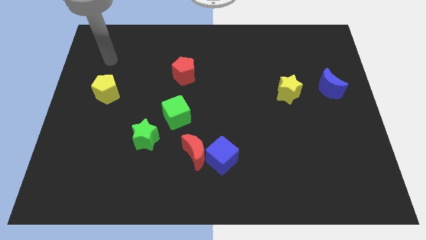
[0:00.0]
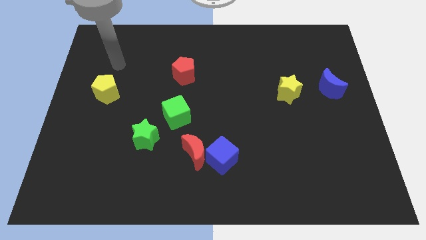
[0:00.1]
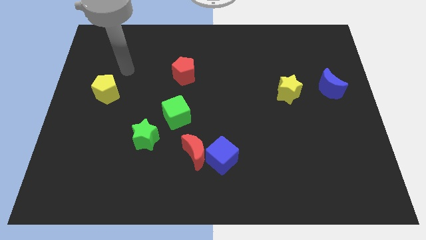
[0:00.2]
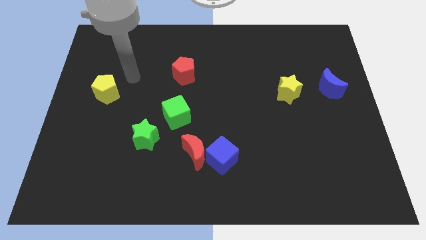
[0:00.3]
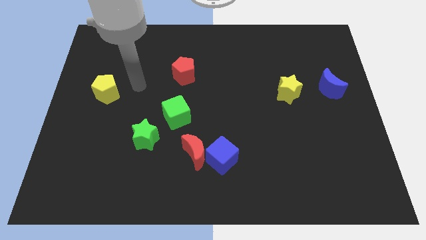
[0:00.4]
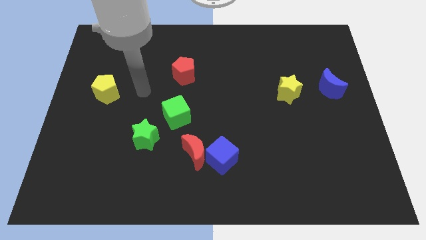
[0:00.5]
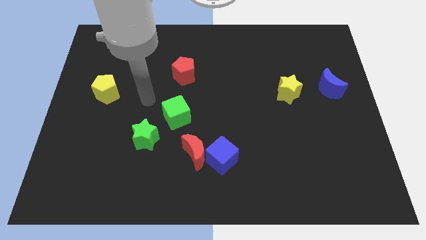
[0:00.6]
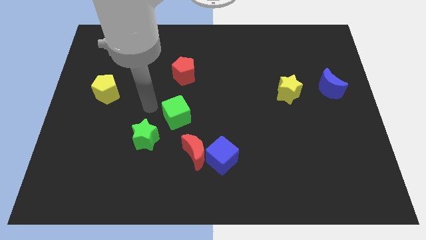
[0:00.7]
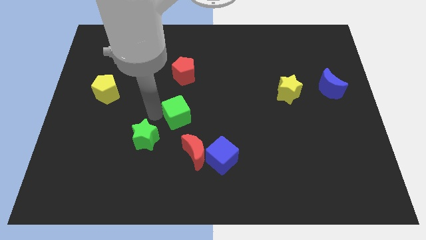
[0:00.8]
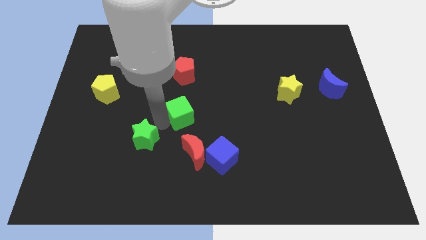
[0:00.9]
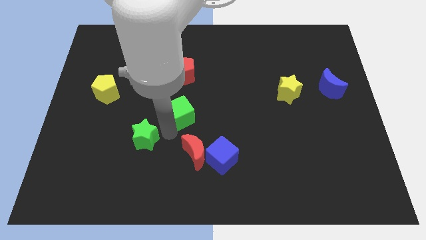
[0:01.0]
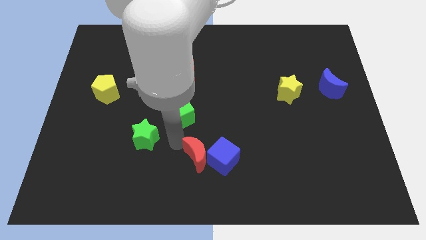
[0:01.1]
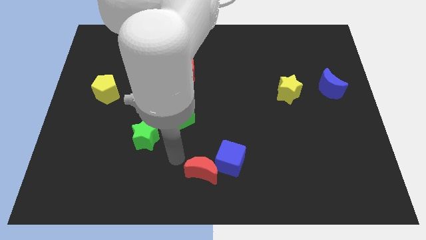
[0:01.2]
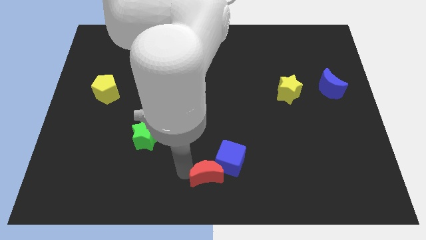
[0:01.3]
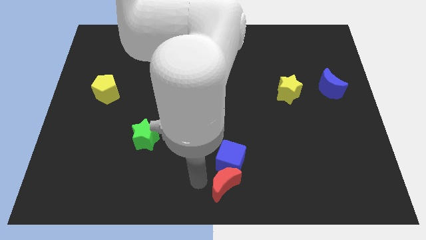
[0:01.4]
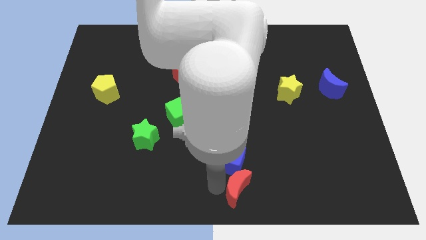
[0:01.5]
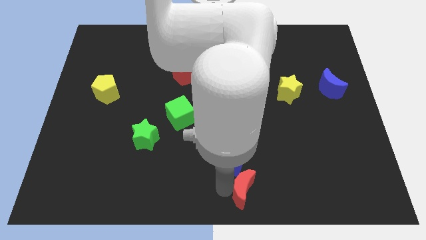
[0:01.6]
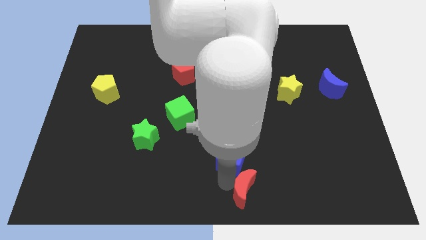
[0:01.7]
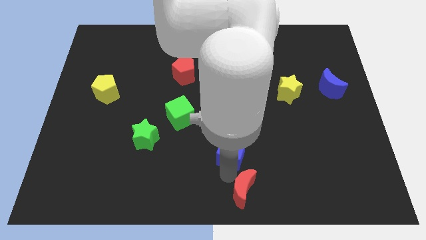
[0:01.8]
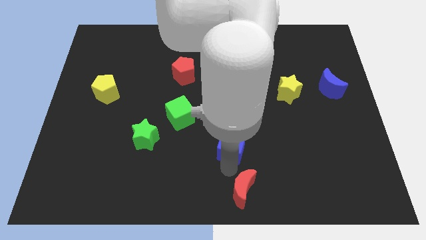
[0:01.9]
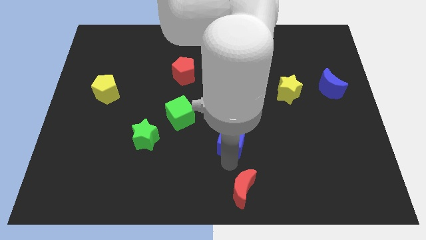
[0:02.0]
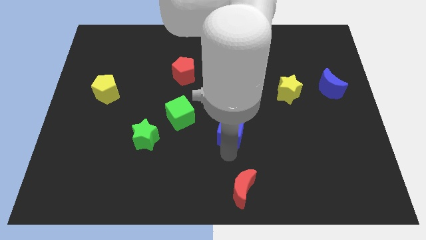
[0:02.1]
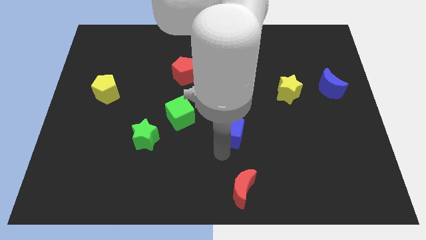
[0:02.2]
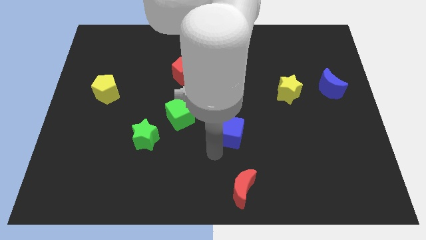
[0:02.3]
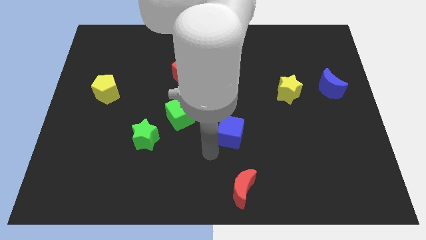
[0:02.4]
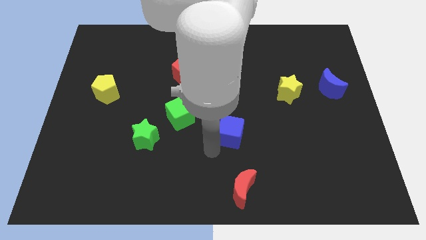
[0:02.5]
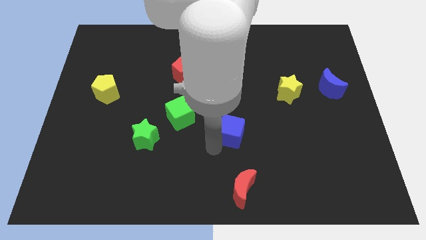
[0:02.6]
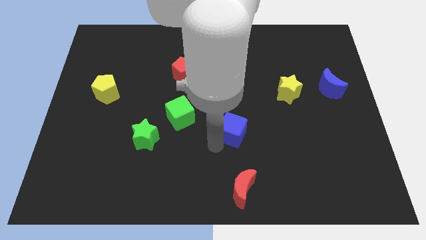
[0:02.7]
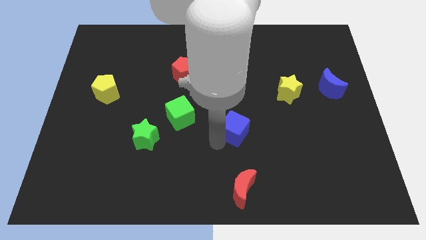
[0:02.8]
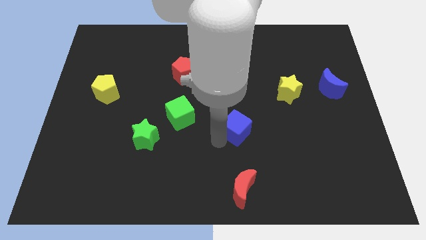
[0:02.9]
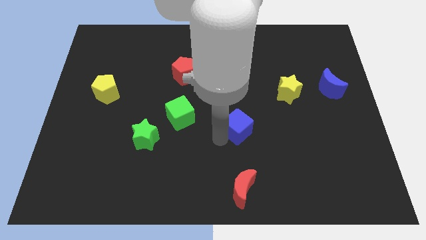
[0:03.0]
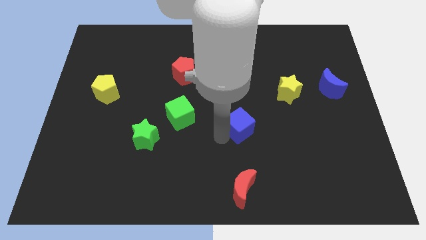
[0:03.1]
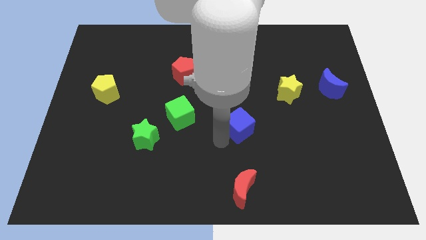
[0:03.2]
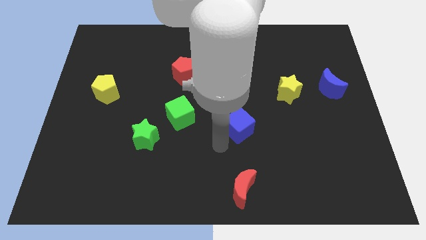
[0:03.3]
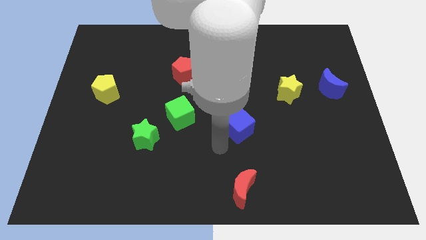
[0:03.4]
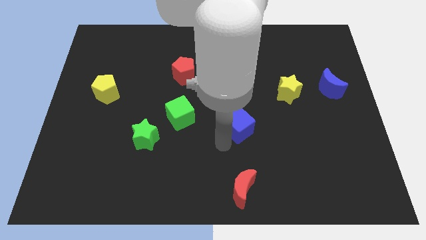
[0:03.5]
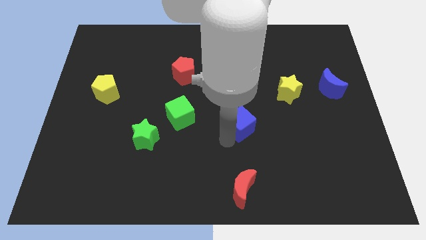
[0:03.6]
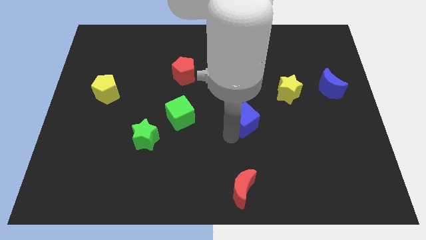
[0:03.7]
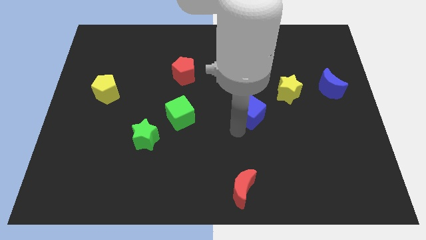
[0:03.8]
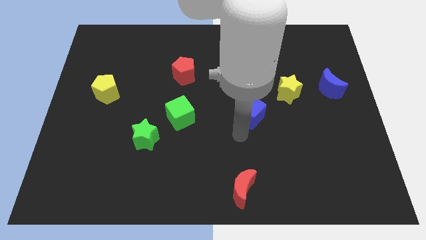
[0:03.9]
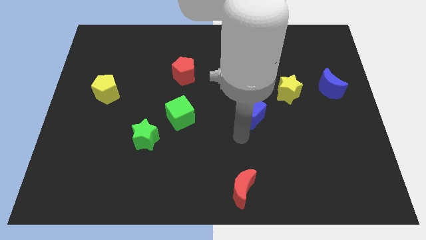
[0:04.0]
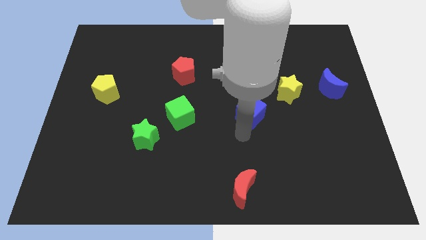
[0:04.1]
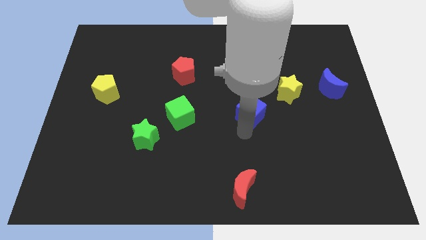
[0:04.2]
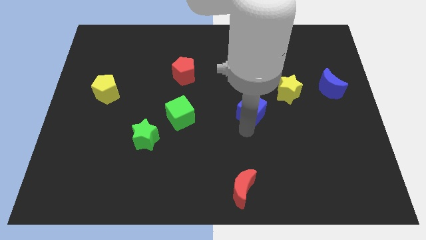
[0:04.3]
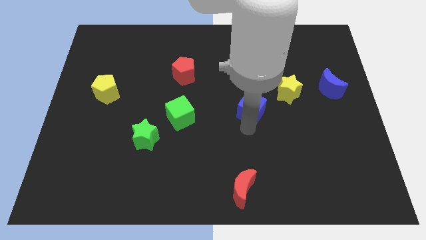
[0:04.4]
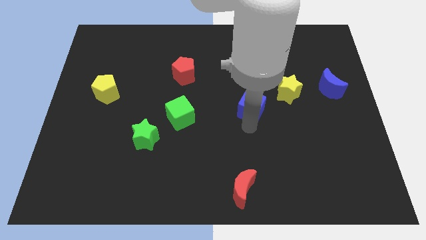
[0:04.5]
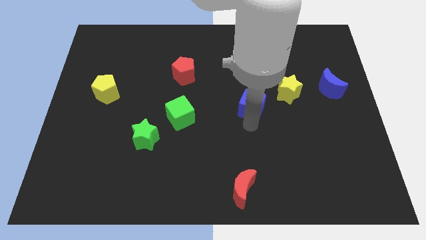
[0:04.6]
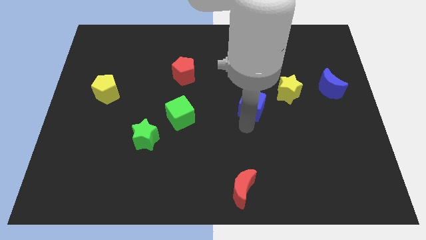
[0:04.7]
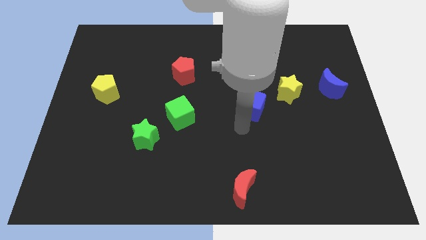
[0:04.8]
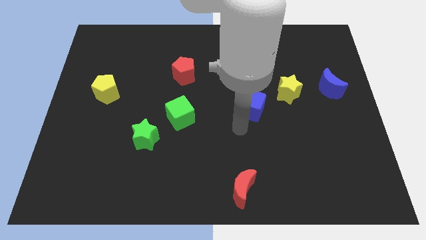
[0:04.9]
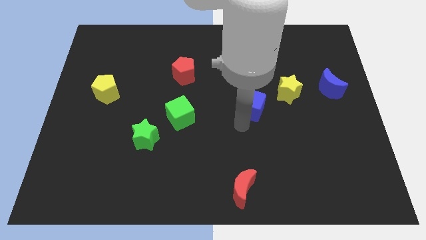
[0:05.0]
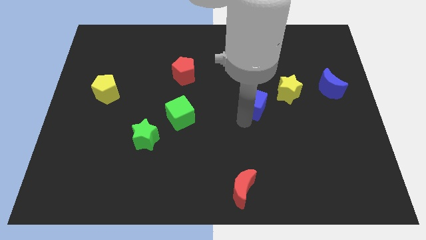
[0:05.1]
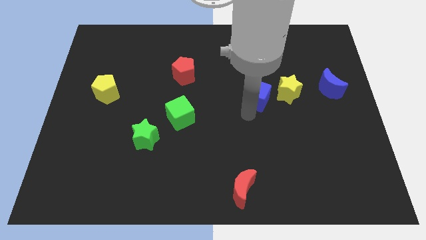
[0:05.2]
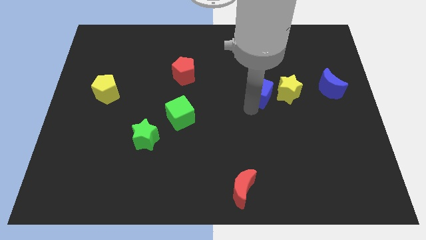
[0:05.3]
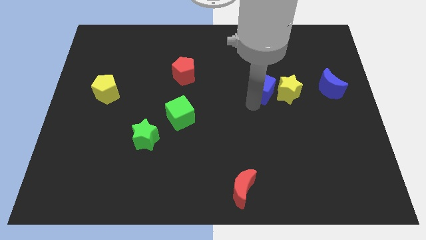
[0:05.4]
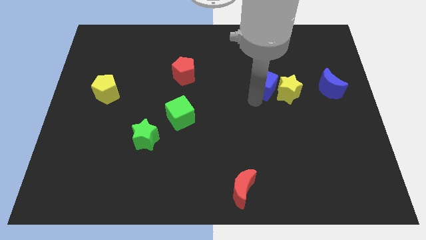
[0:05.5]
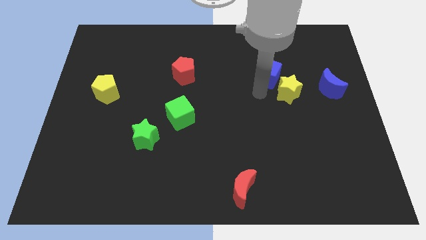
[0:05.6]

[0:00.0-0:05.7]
push the blue cube to the top of the yellow star

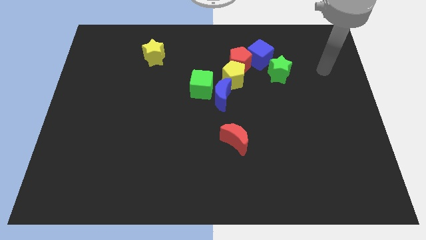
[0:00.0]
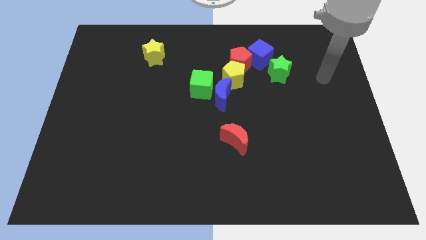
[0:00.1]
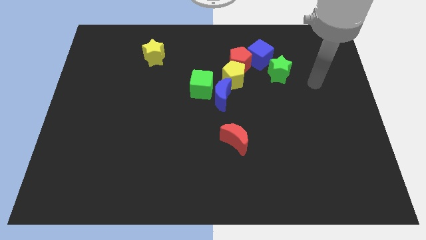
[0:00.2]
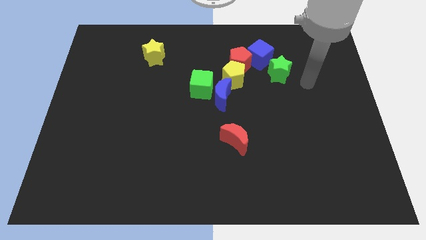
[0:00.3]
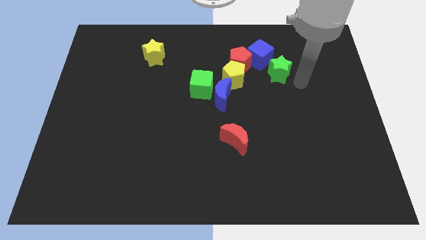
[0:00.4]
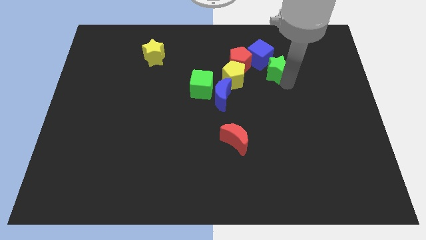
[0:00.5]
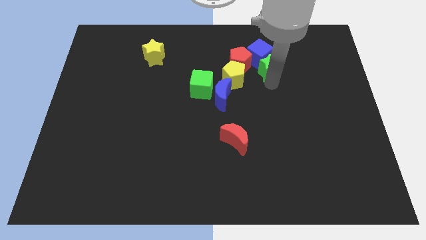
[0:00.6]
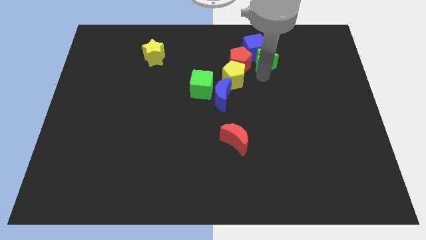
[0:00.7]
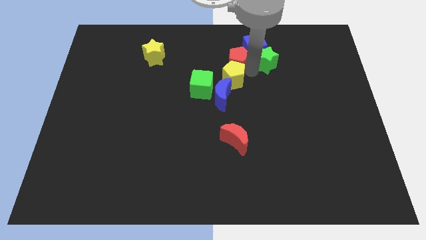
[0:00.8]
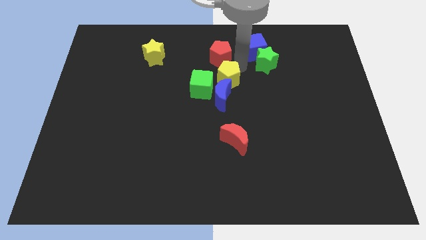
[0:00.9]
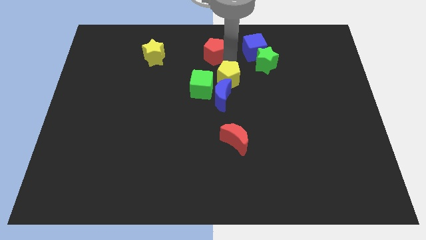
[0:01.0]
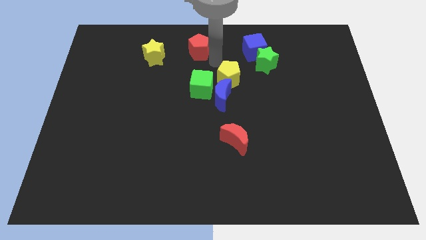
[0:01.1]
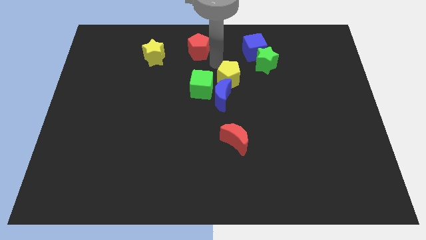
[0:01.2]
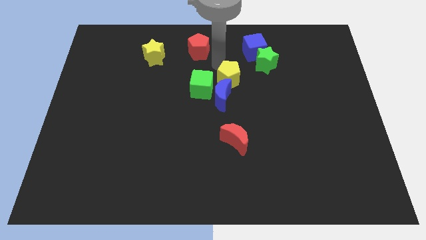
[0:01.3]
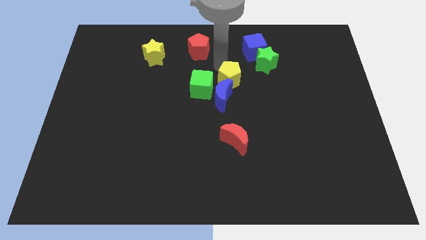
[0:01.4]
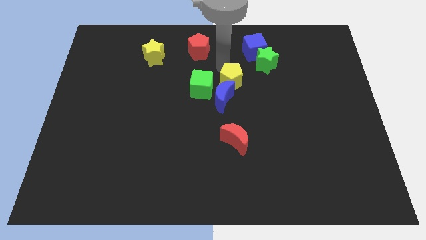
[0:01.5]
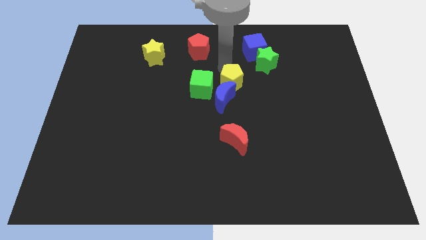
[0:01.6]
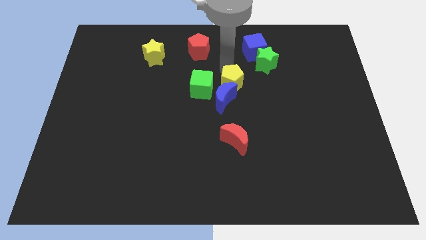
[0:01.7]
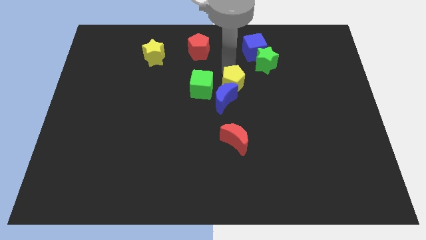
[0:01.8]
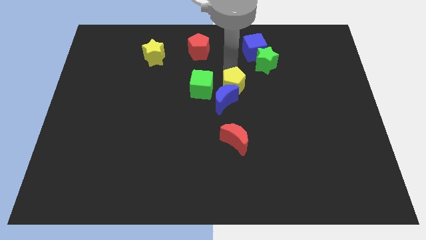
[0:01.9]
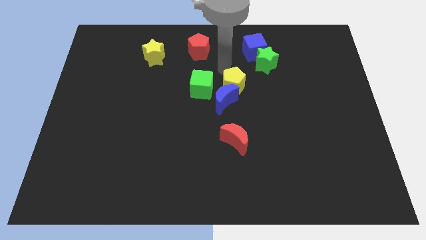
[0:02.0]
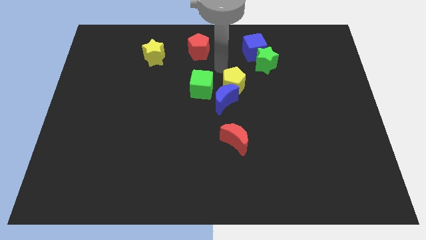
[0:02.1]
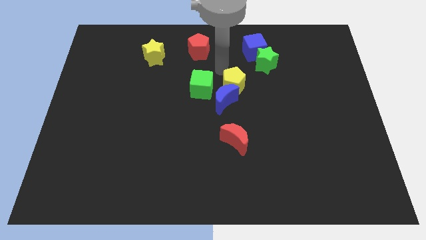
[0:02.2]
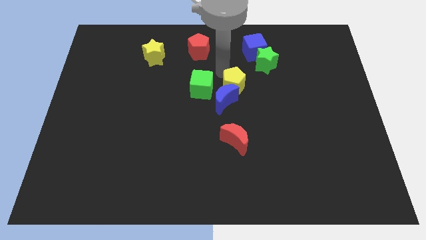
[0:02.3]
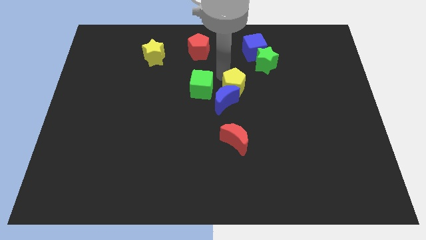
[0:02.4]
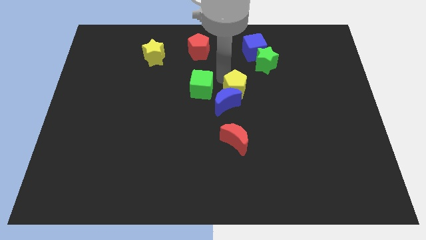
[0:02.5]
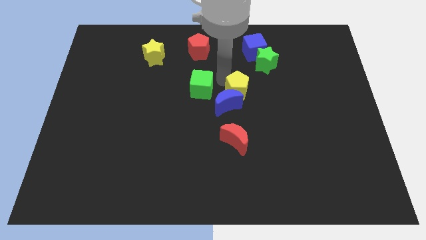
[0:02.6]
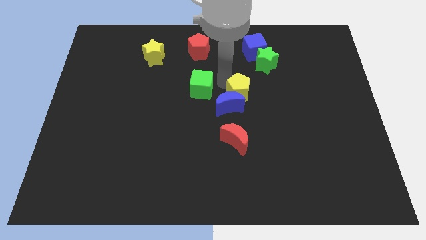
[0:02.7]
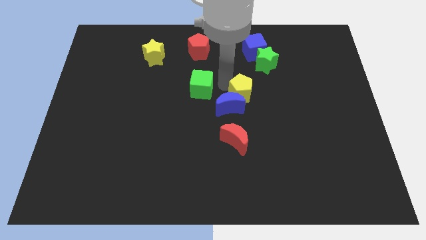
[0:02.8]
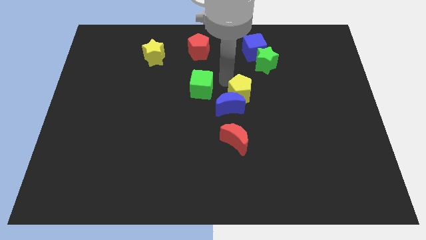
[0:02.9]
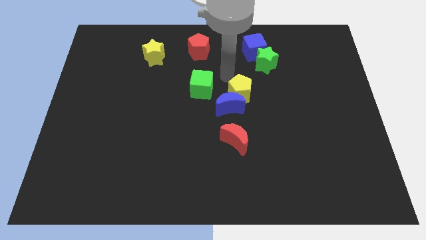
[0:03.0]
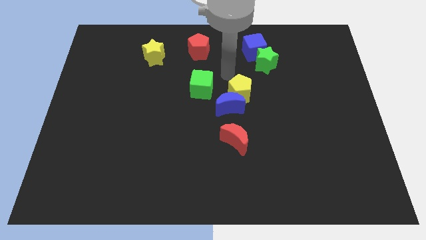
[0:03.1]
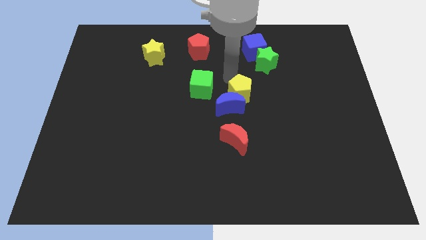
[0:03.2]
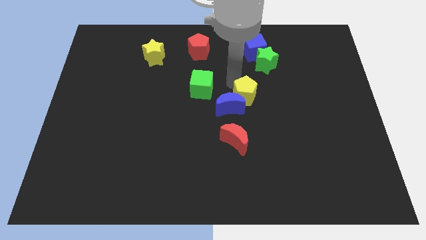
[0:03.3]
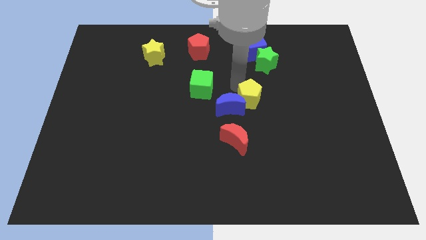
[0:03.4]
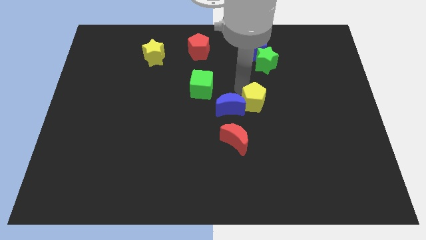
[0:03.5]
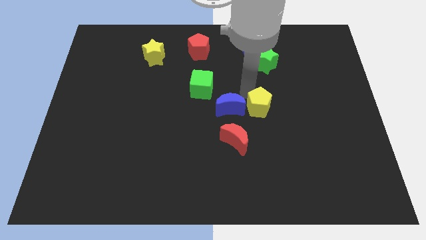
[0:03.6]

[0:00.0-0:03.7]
put the yellow pentagon to the top right side of the red moon
